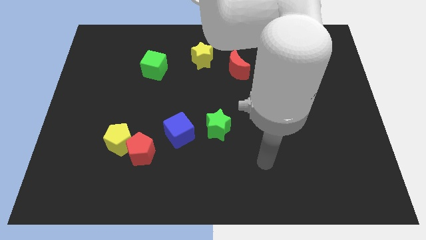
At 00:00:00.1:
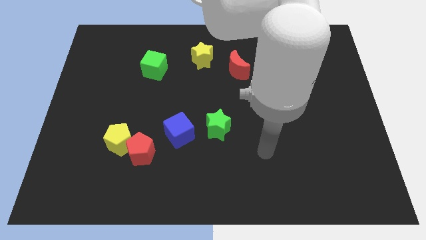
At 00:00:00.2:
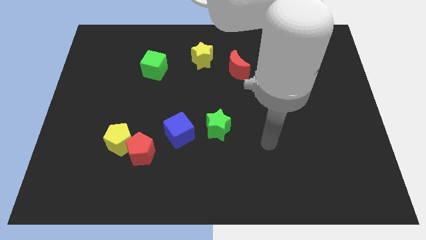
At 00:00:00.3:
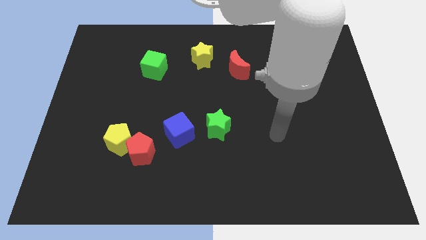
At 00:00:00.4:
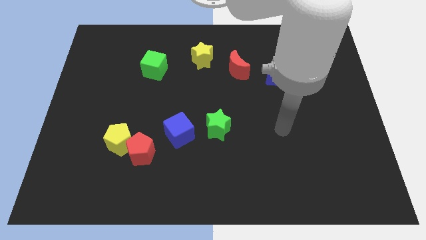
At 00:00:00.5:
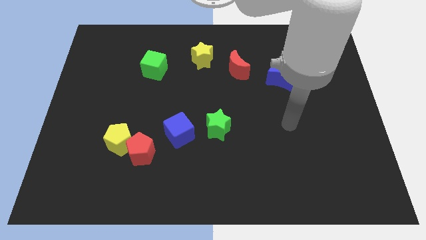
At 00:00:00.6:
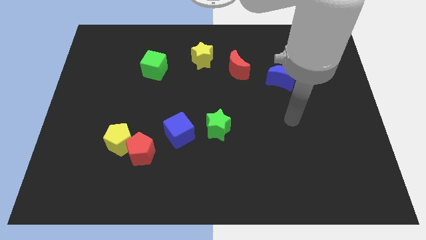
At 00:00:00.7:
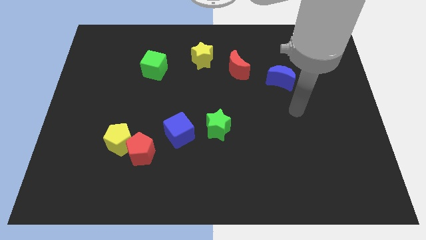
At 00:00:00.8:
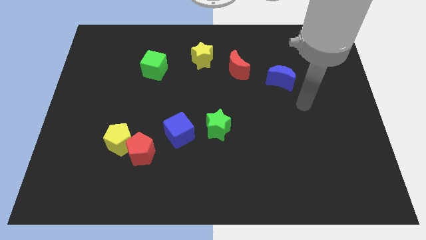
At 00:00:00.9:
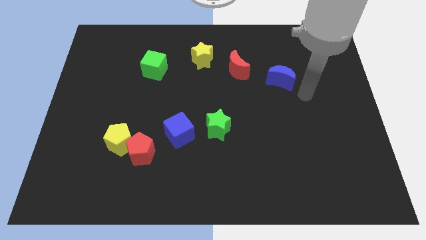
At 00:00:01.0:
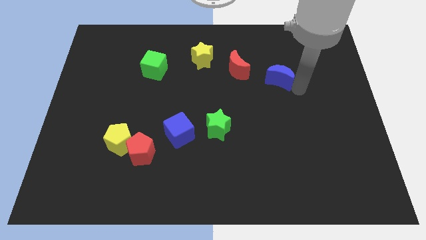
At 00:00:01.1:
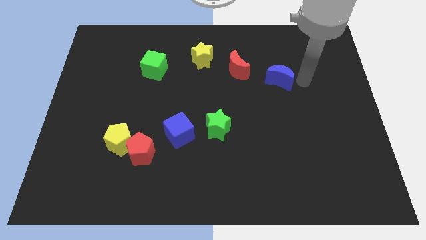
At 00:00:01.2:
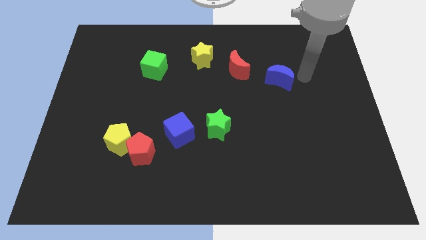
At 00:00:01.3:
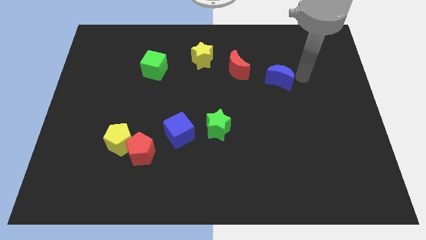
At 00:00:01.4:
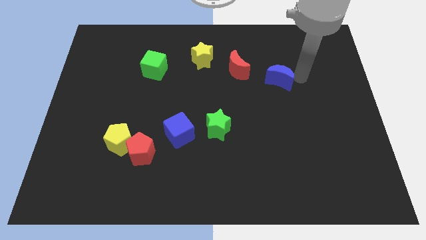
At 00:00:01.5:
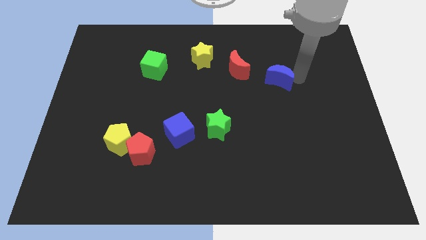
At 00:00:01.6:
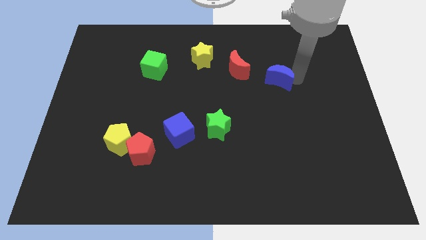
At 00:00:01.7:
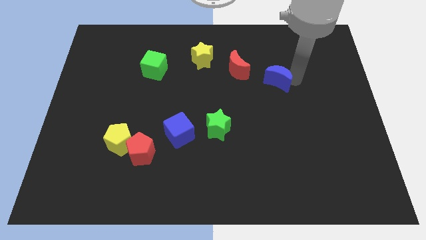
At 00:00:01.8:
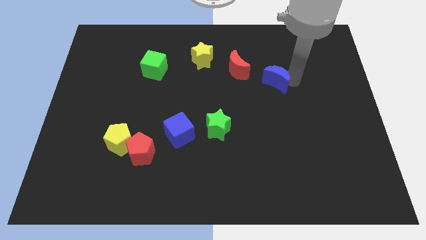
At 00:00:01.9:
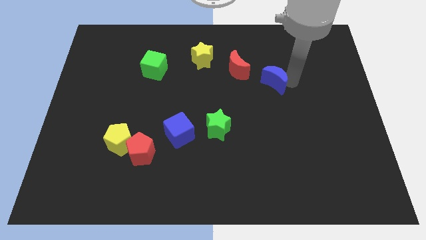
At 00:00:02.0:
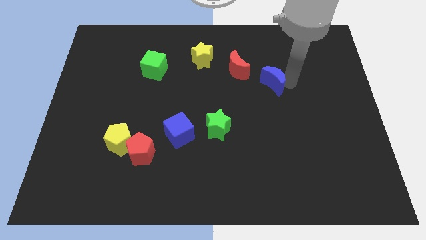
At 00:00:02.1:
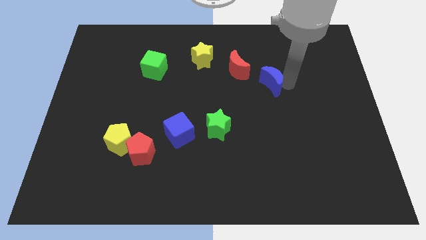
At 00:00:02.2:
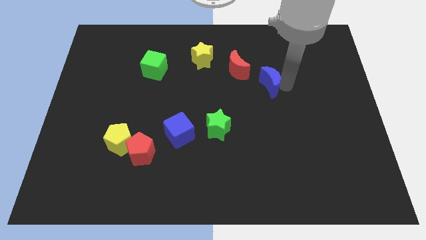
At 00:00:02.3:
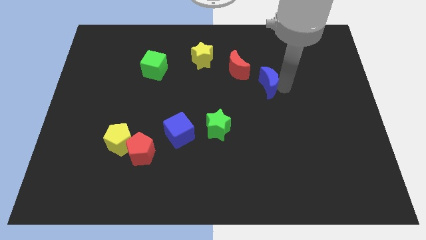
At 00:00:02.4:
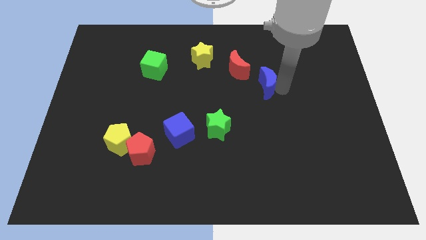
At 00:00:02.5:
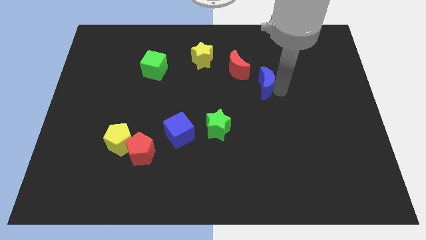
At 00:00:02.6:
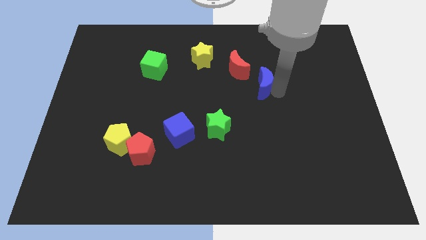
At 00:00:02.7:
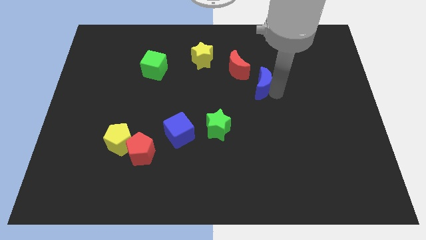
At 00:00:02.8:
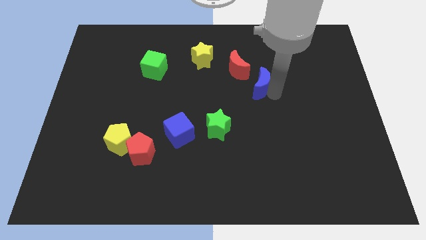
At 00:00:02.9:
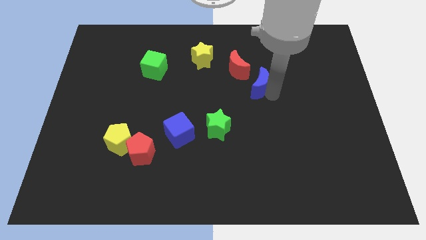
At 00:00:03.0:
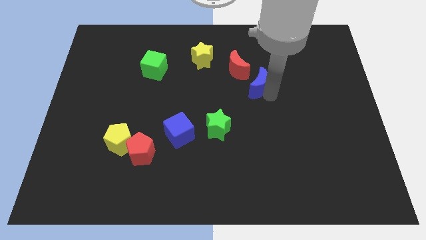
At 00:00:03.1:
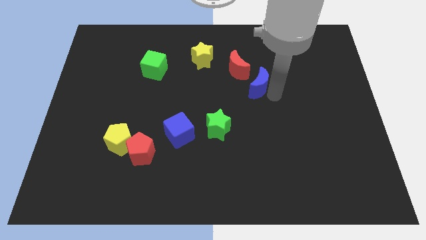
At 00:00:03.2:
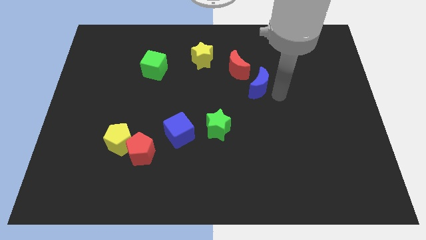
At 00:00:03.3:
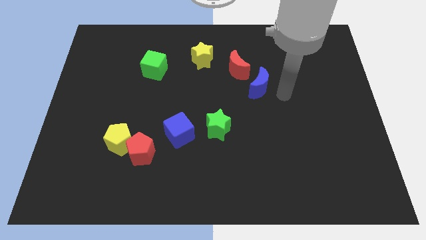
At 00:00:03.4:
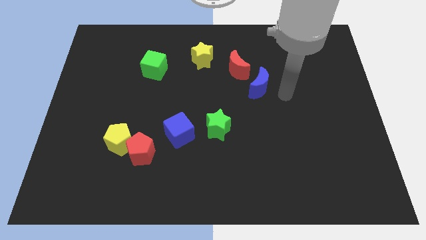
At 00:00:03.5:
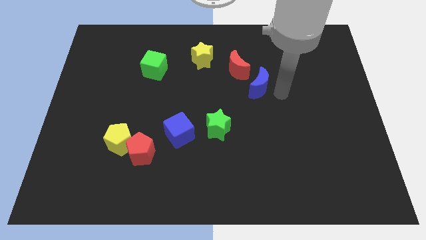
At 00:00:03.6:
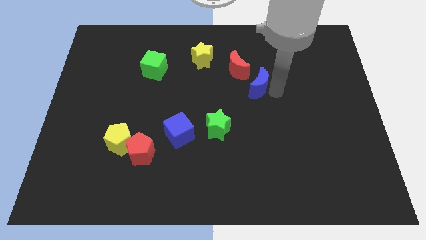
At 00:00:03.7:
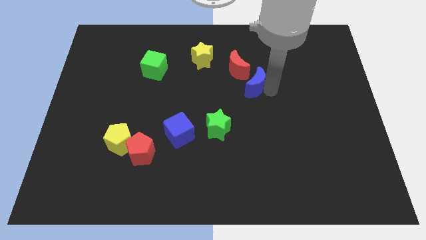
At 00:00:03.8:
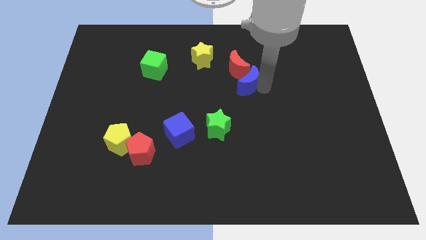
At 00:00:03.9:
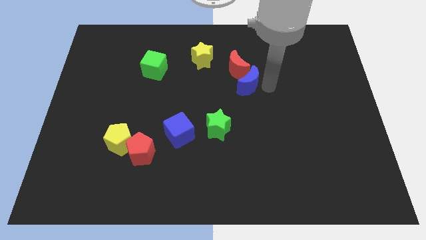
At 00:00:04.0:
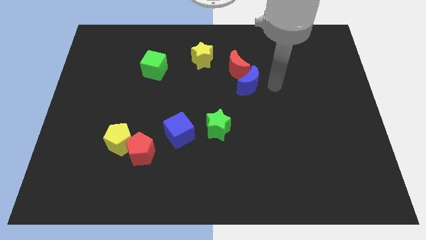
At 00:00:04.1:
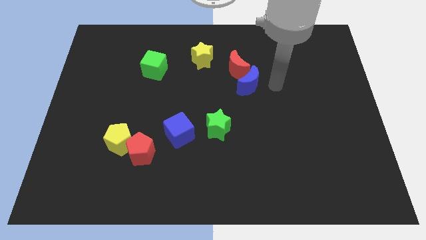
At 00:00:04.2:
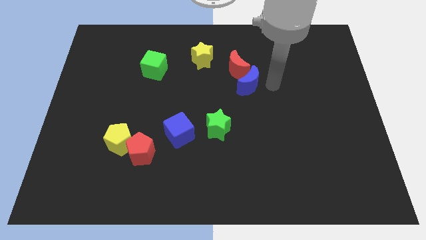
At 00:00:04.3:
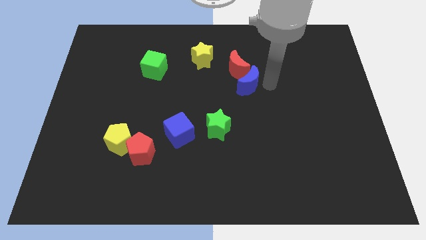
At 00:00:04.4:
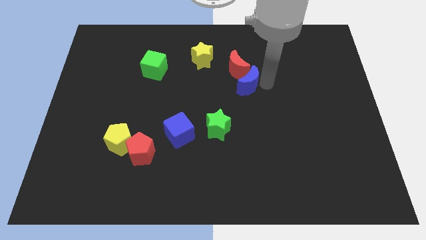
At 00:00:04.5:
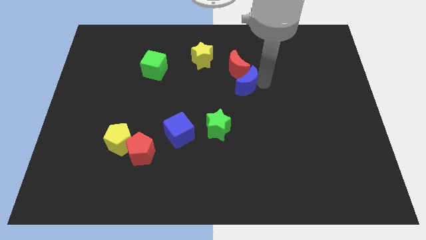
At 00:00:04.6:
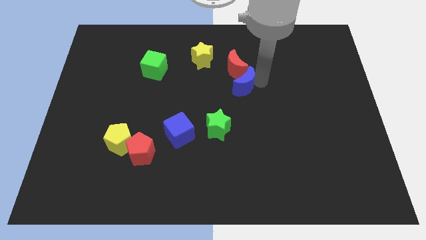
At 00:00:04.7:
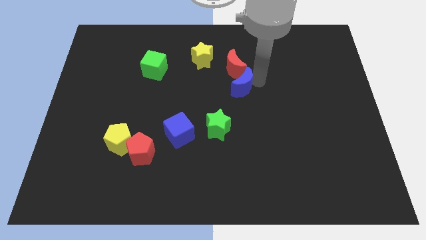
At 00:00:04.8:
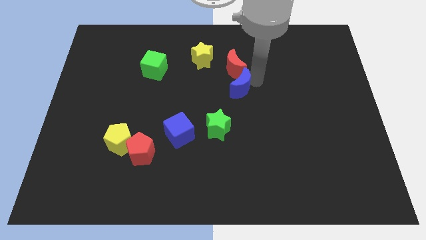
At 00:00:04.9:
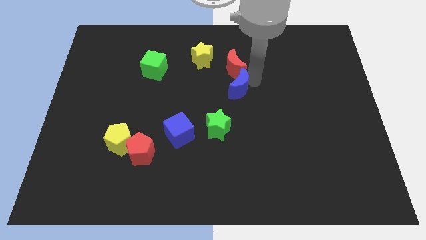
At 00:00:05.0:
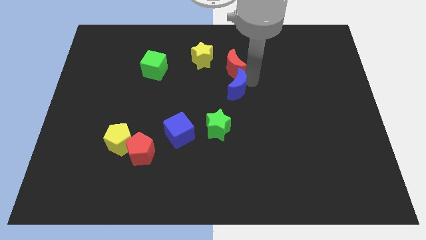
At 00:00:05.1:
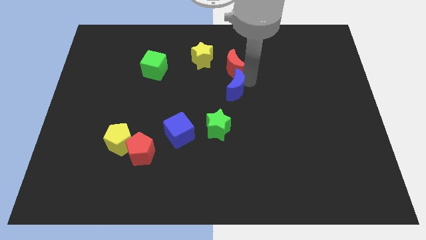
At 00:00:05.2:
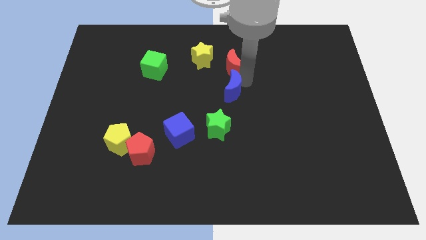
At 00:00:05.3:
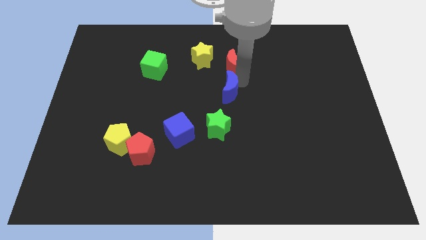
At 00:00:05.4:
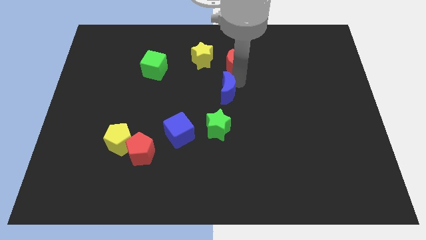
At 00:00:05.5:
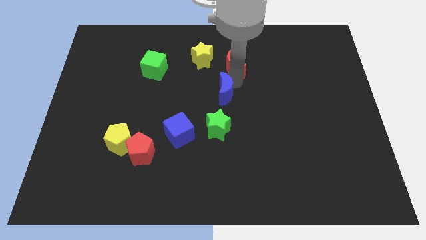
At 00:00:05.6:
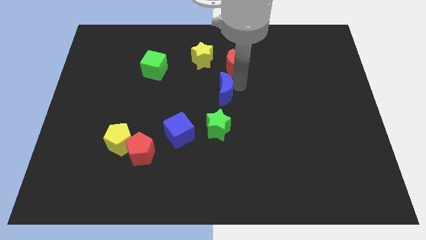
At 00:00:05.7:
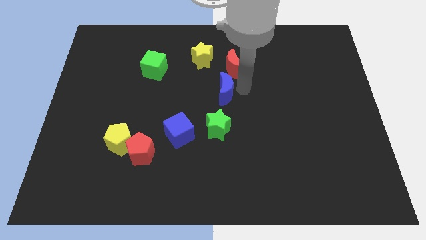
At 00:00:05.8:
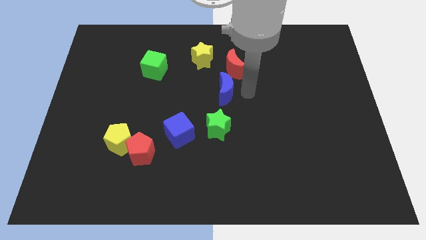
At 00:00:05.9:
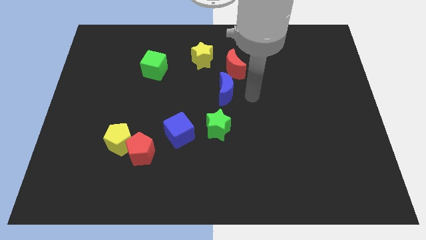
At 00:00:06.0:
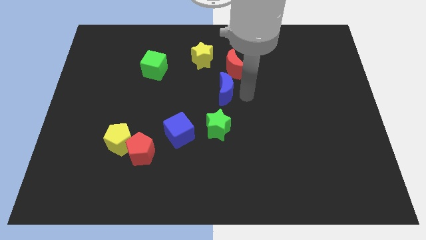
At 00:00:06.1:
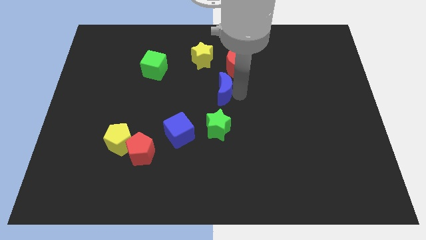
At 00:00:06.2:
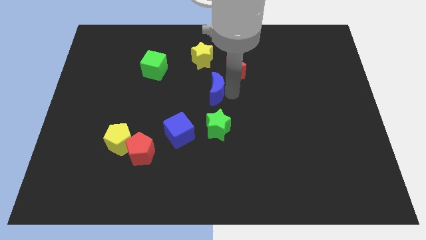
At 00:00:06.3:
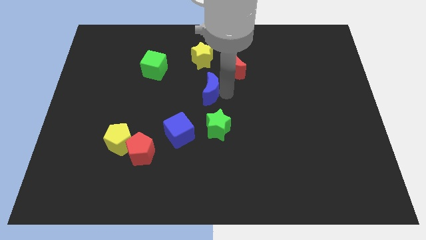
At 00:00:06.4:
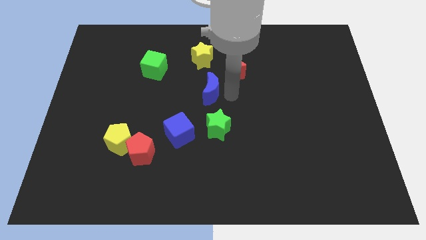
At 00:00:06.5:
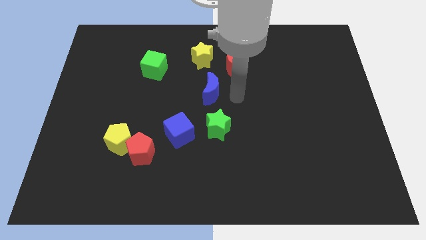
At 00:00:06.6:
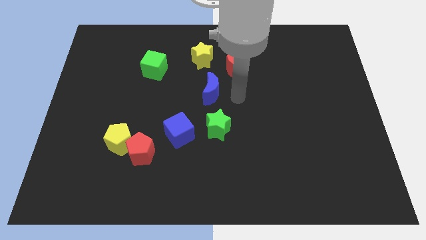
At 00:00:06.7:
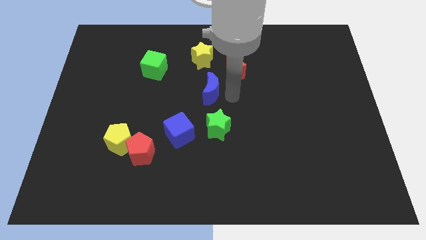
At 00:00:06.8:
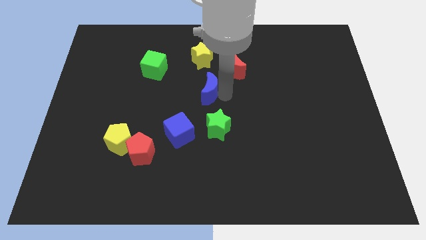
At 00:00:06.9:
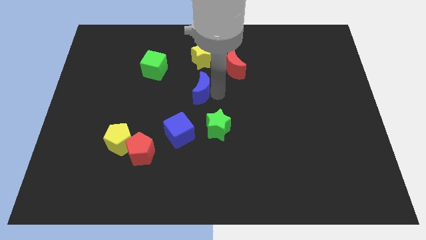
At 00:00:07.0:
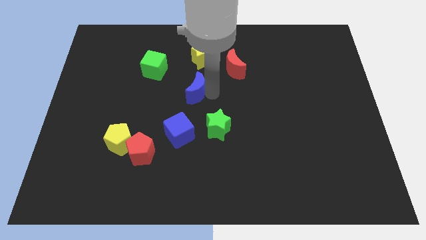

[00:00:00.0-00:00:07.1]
slide the blue moon to the left

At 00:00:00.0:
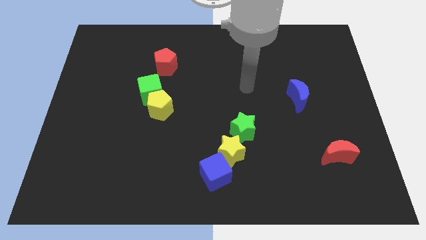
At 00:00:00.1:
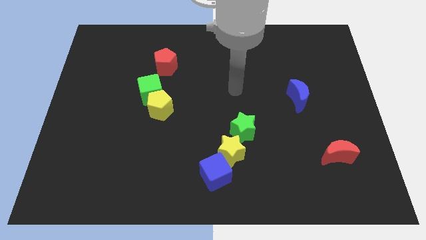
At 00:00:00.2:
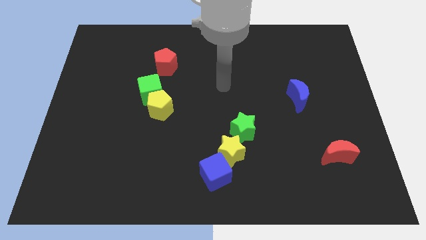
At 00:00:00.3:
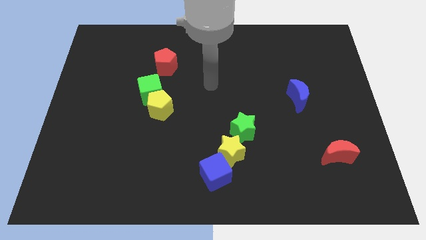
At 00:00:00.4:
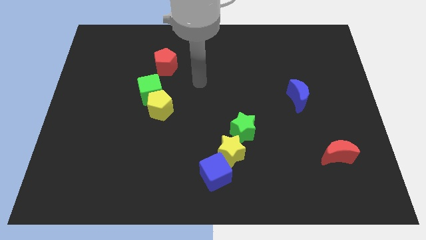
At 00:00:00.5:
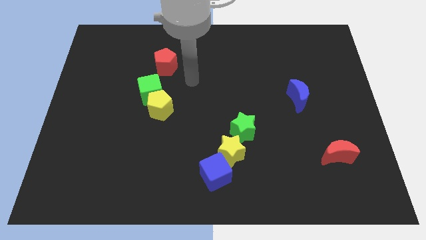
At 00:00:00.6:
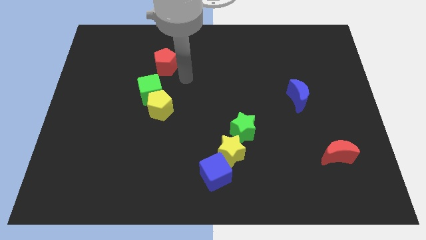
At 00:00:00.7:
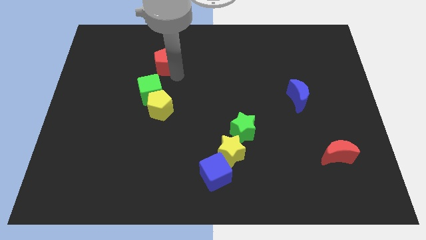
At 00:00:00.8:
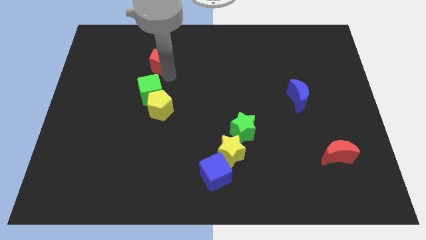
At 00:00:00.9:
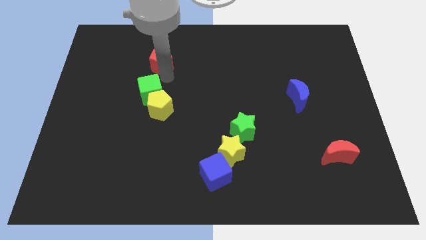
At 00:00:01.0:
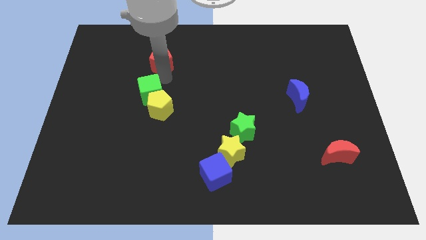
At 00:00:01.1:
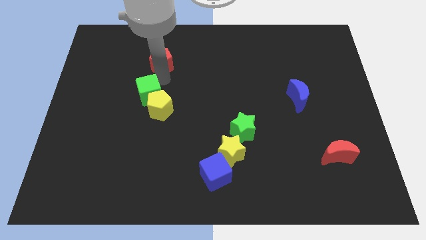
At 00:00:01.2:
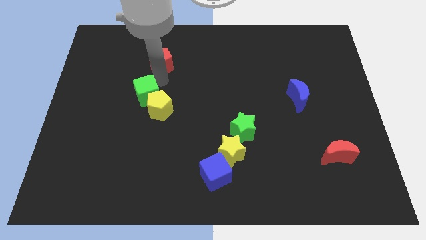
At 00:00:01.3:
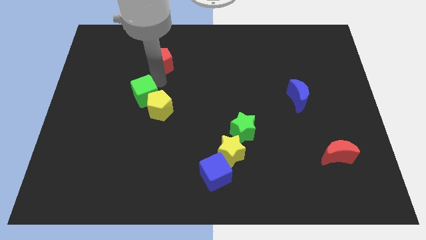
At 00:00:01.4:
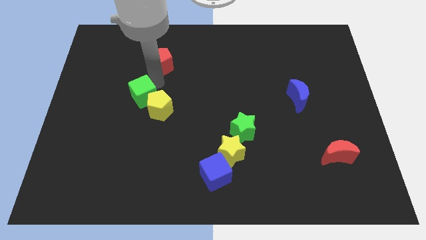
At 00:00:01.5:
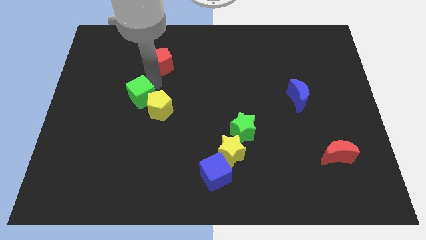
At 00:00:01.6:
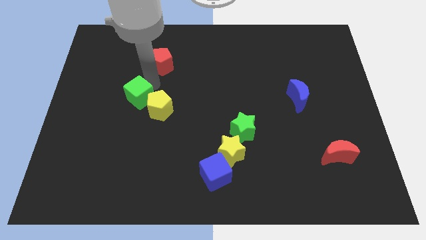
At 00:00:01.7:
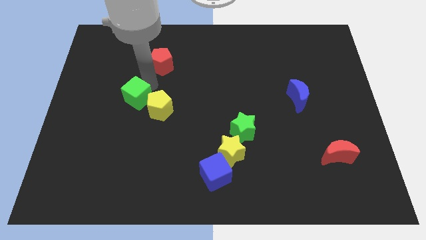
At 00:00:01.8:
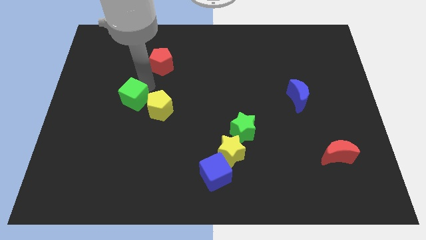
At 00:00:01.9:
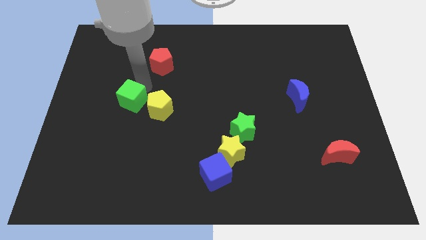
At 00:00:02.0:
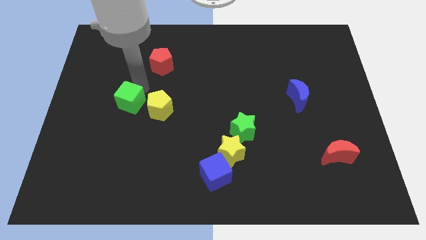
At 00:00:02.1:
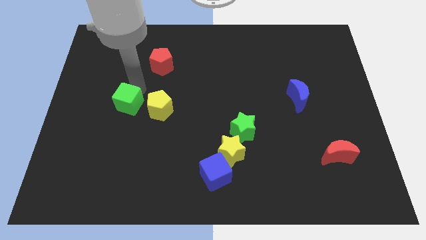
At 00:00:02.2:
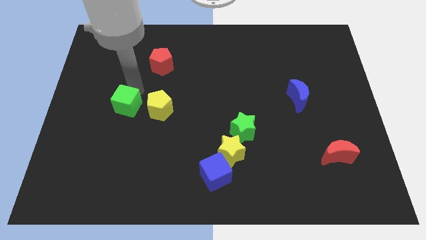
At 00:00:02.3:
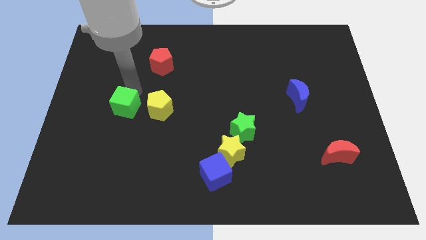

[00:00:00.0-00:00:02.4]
move the green cube slightly down and left diagonally
